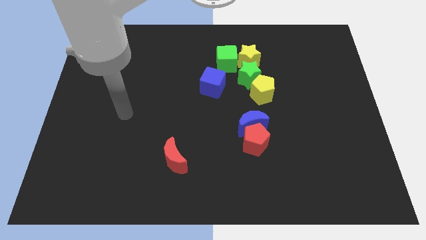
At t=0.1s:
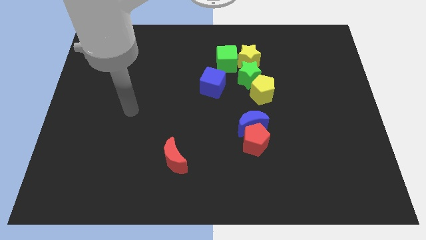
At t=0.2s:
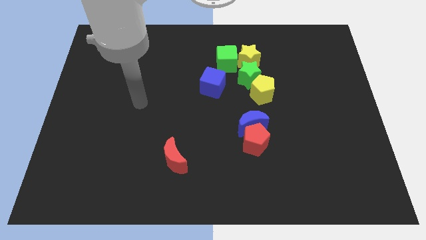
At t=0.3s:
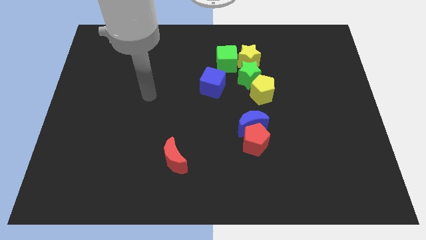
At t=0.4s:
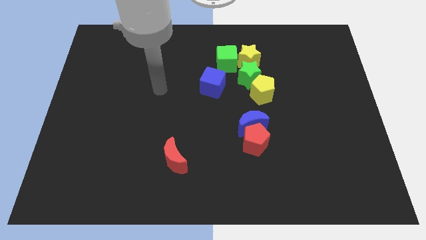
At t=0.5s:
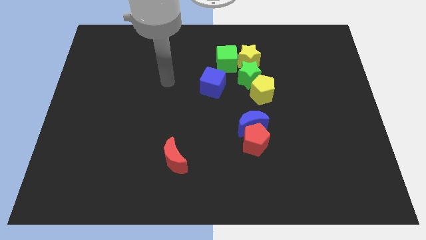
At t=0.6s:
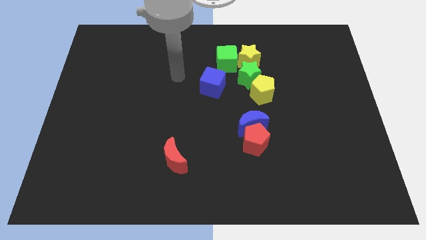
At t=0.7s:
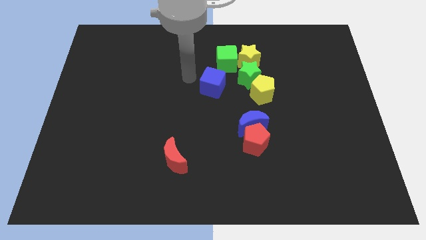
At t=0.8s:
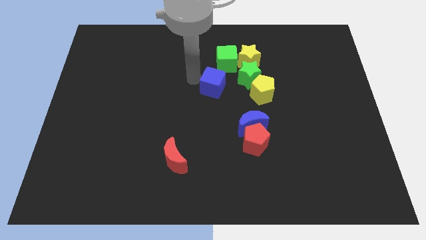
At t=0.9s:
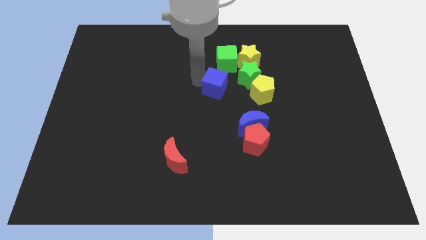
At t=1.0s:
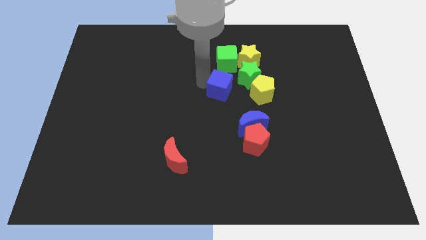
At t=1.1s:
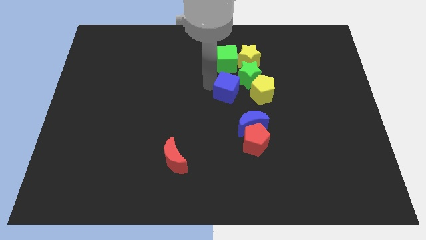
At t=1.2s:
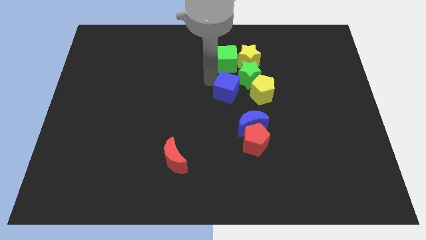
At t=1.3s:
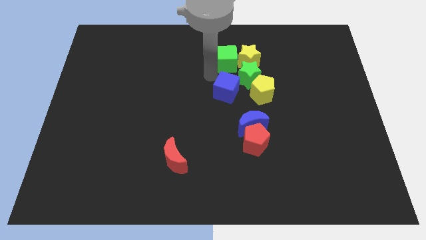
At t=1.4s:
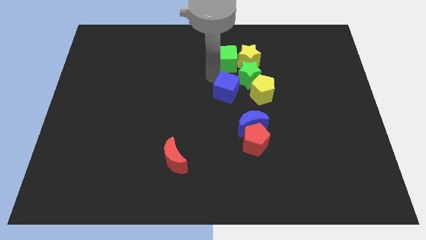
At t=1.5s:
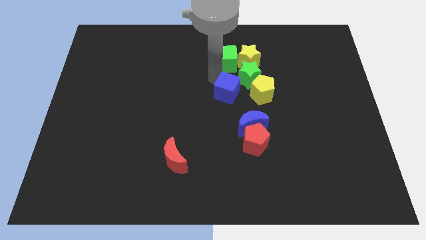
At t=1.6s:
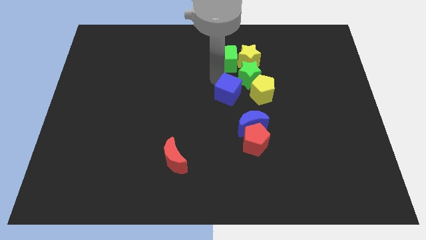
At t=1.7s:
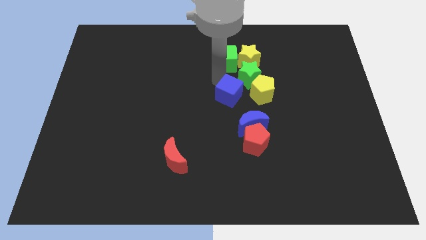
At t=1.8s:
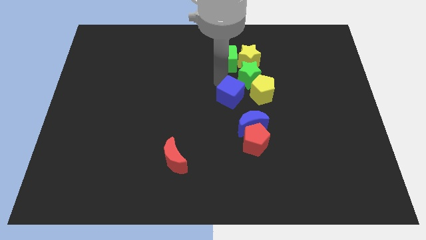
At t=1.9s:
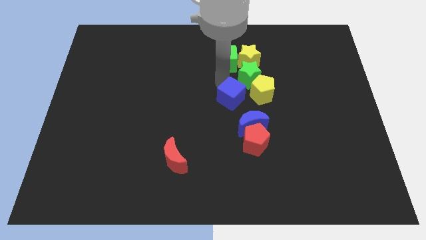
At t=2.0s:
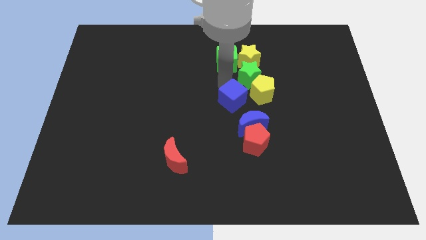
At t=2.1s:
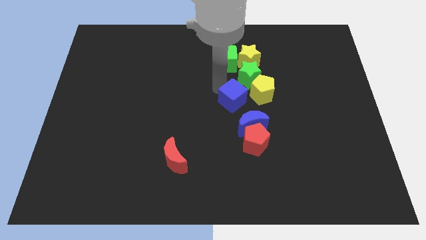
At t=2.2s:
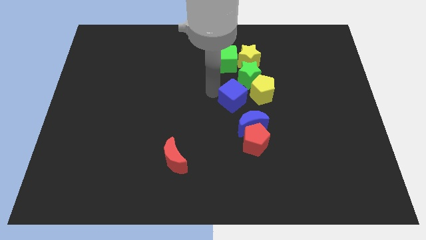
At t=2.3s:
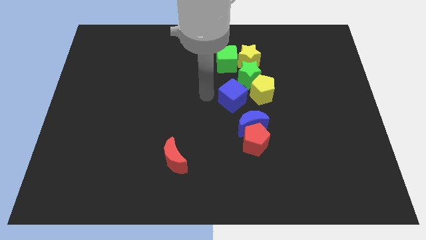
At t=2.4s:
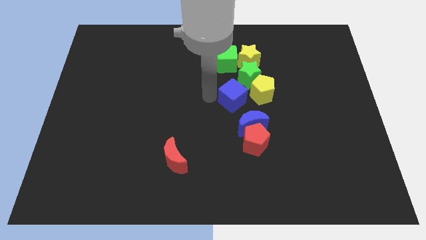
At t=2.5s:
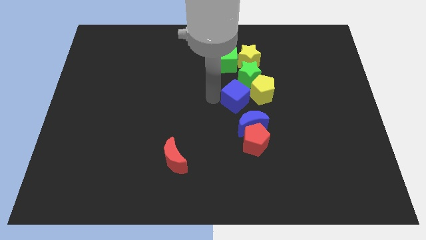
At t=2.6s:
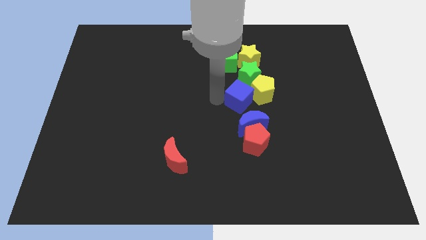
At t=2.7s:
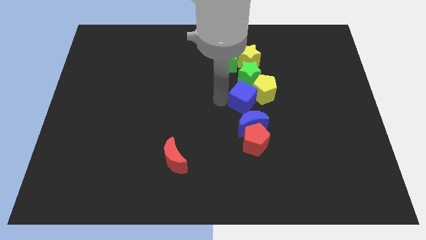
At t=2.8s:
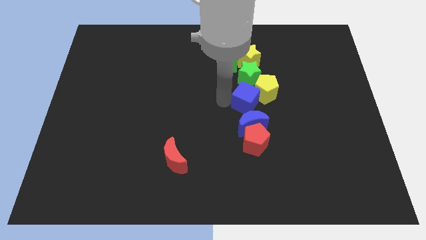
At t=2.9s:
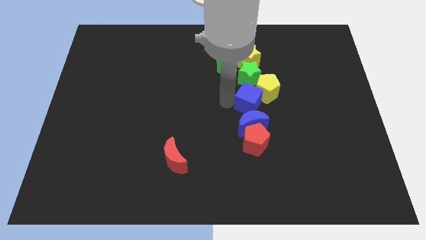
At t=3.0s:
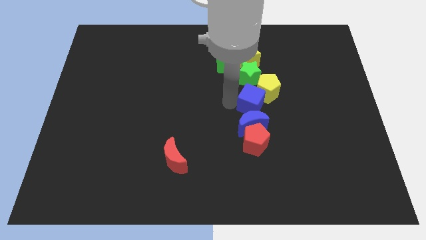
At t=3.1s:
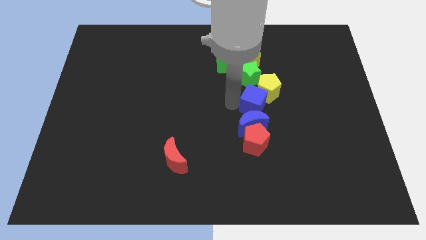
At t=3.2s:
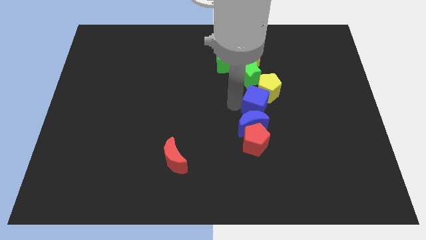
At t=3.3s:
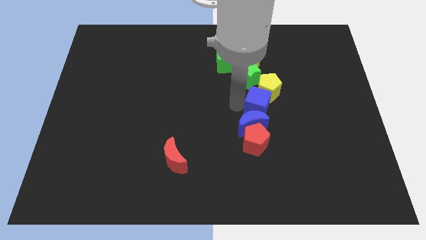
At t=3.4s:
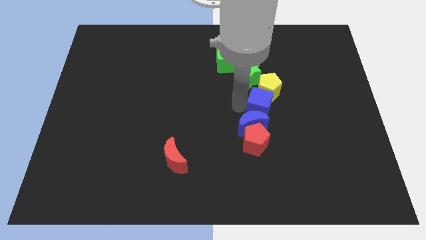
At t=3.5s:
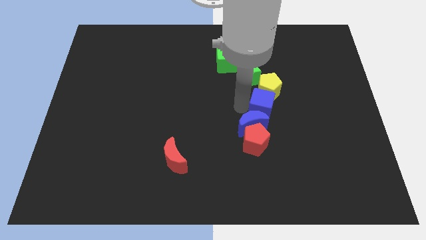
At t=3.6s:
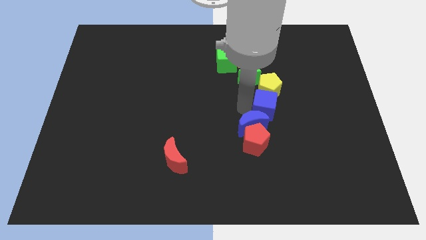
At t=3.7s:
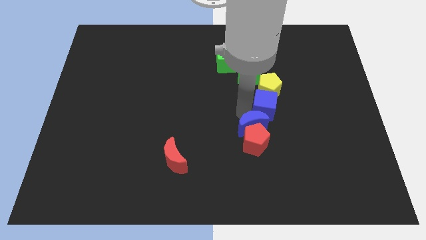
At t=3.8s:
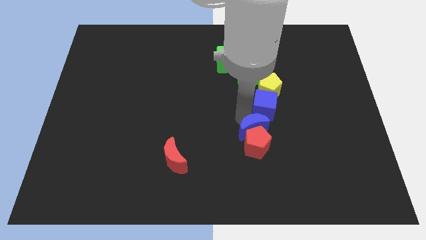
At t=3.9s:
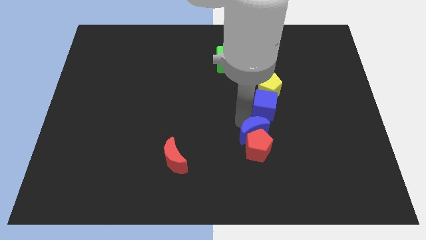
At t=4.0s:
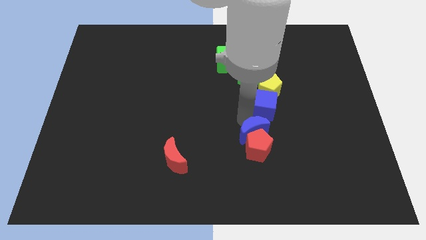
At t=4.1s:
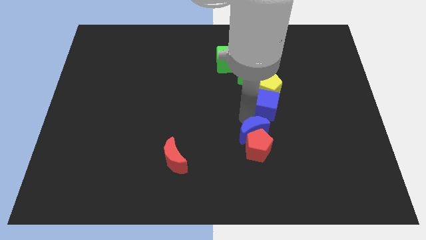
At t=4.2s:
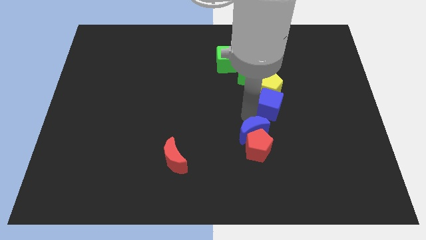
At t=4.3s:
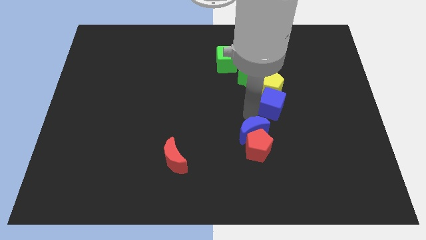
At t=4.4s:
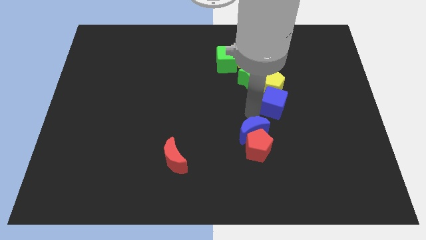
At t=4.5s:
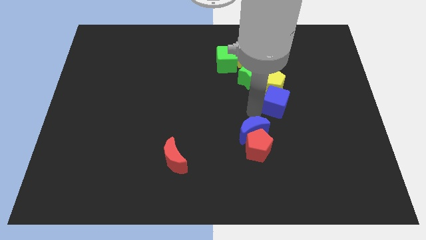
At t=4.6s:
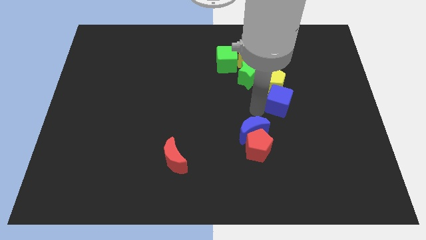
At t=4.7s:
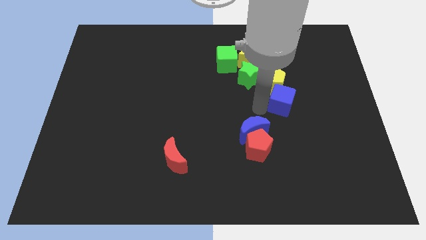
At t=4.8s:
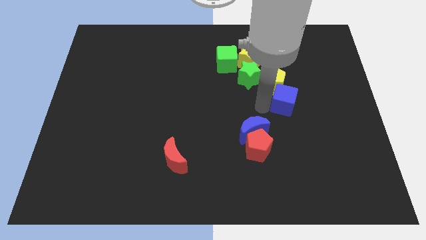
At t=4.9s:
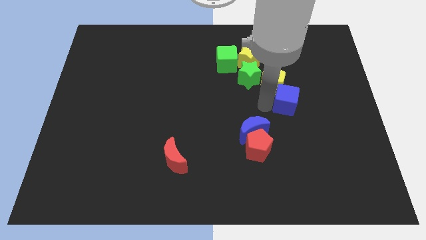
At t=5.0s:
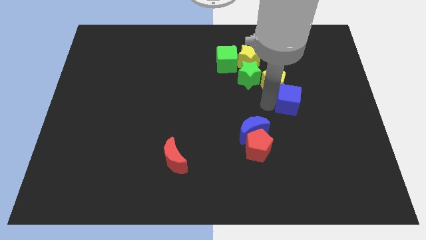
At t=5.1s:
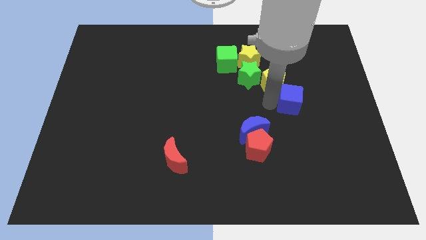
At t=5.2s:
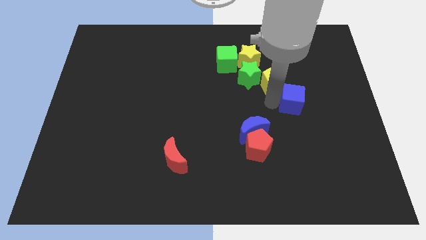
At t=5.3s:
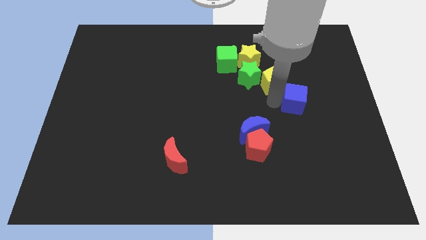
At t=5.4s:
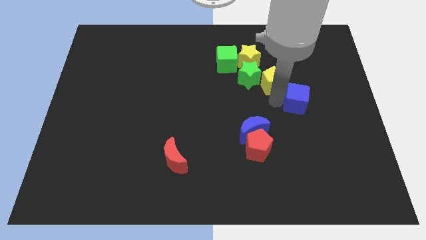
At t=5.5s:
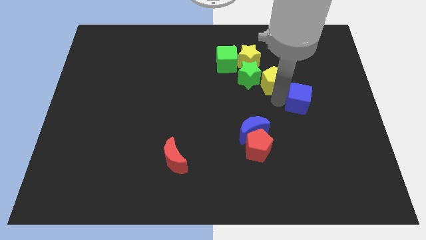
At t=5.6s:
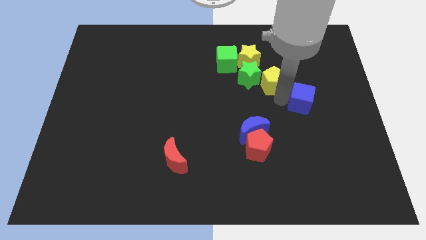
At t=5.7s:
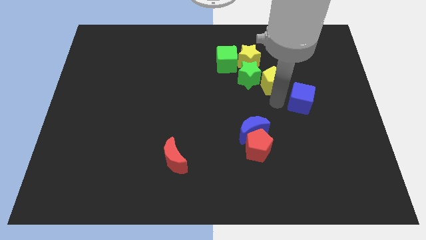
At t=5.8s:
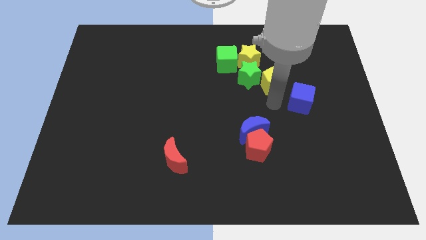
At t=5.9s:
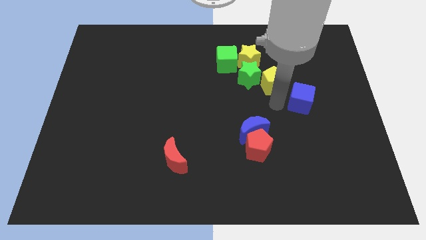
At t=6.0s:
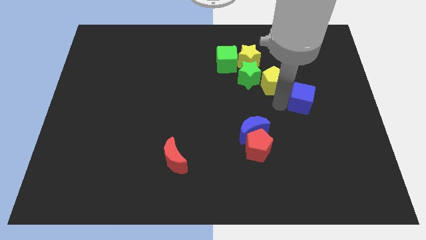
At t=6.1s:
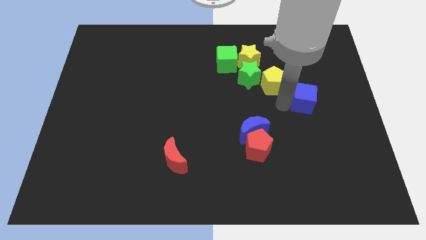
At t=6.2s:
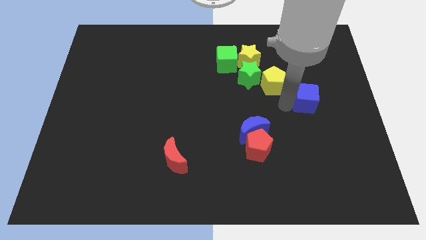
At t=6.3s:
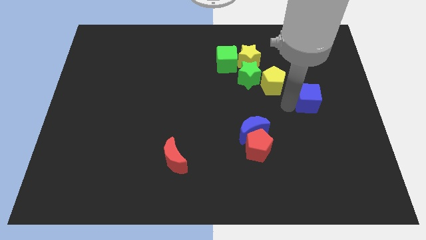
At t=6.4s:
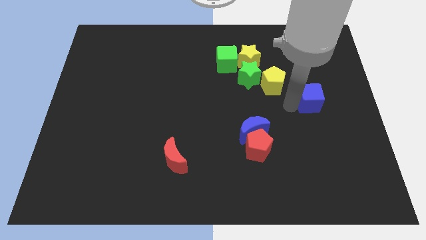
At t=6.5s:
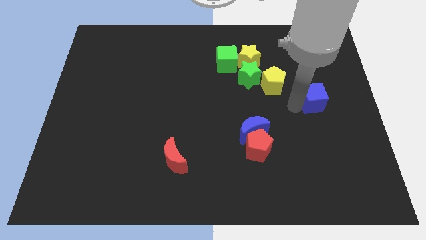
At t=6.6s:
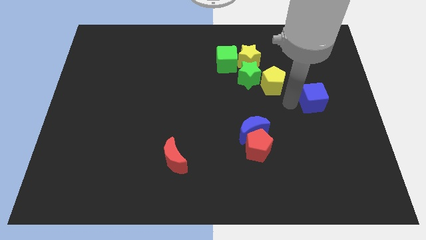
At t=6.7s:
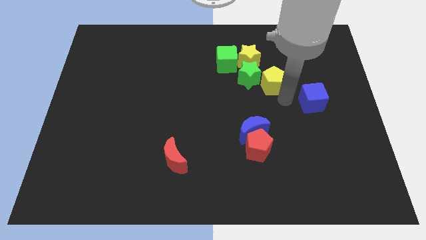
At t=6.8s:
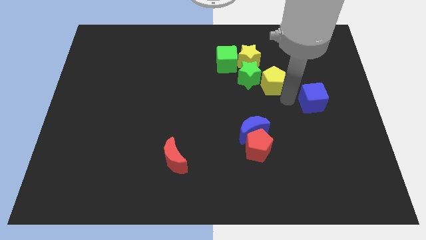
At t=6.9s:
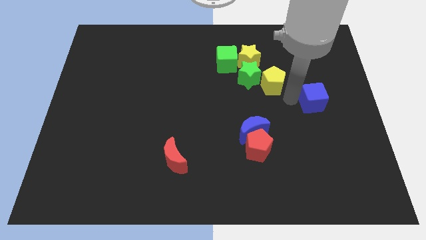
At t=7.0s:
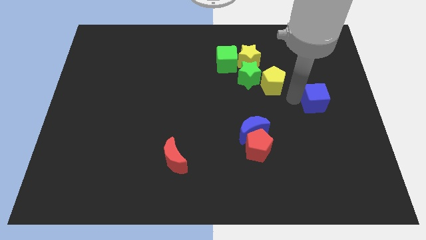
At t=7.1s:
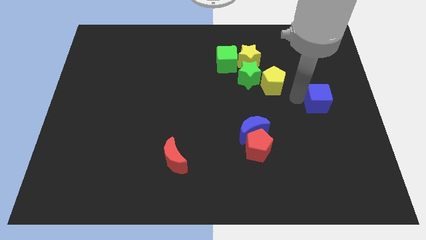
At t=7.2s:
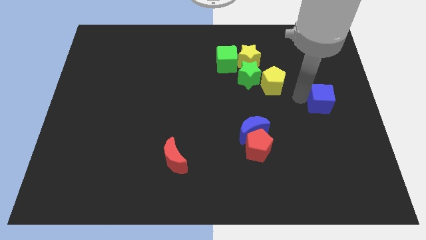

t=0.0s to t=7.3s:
put the blue cube to the center right
